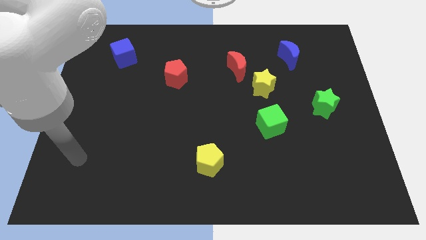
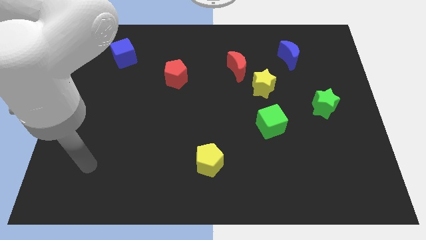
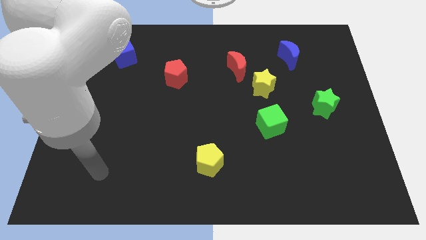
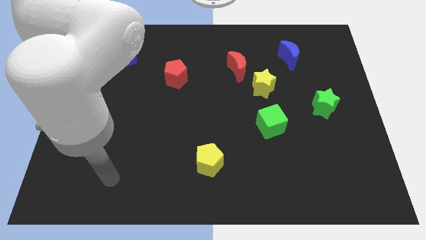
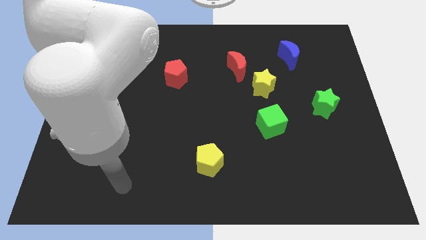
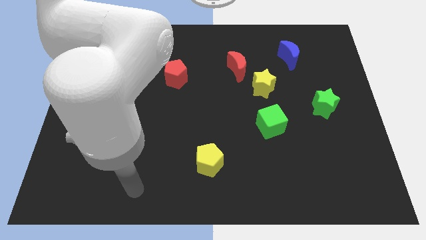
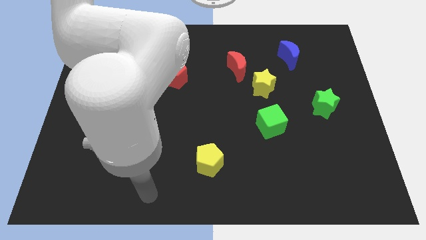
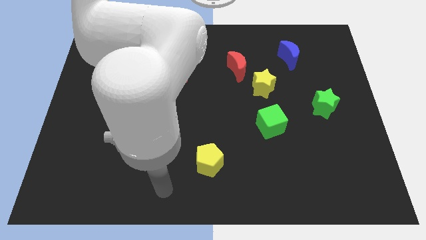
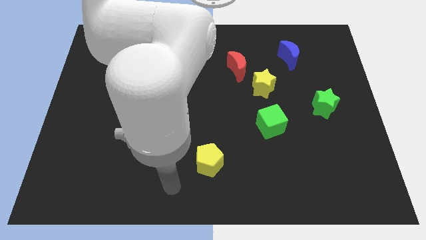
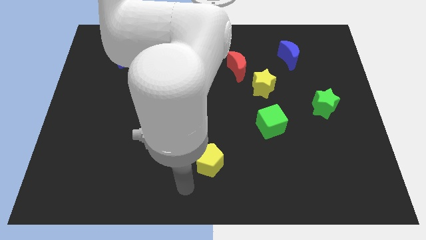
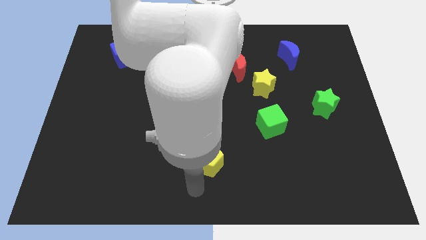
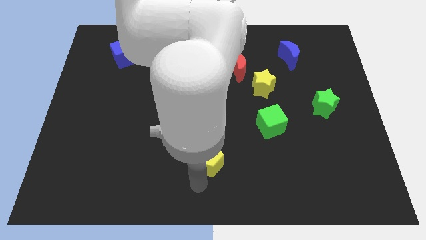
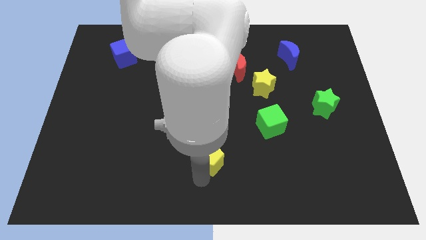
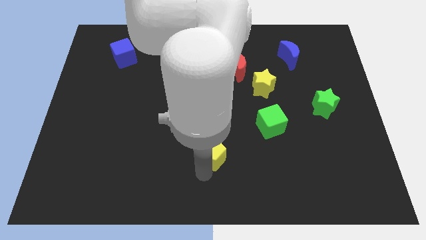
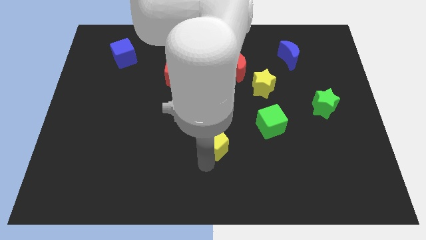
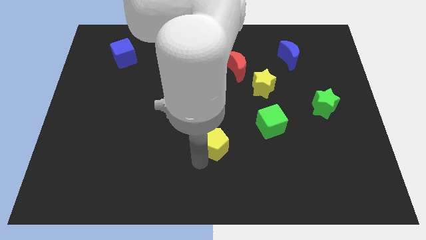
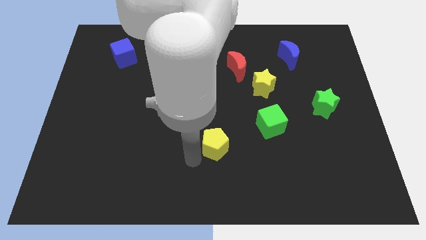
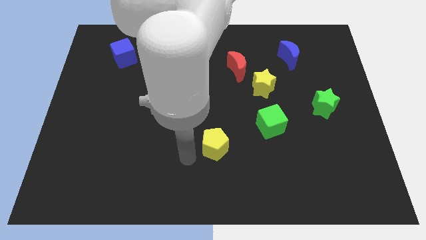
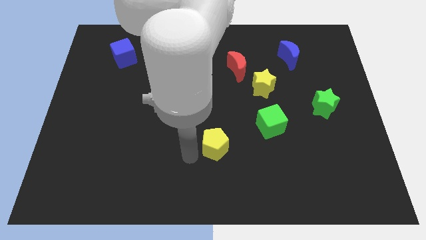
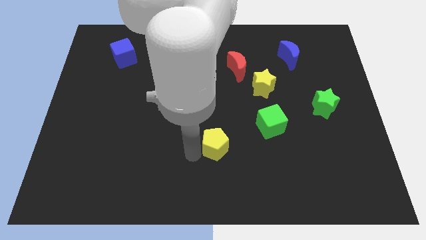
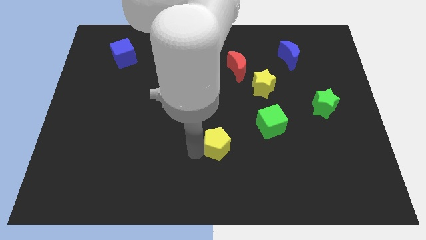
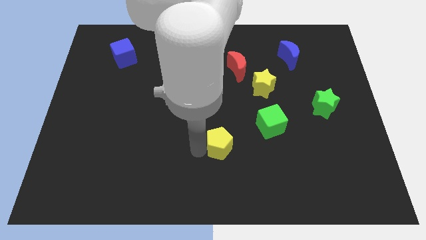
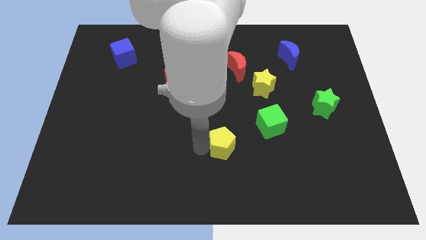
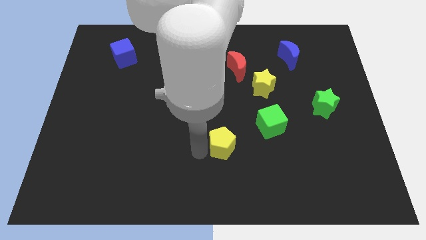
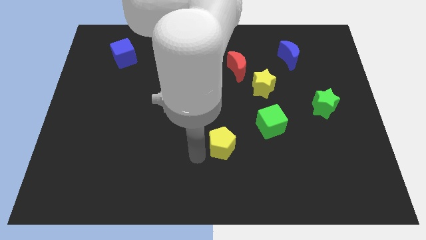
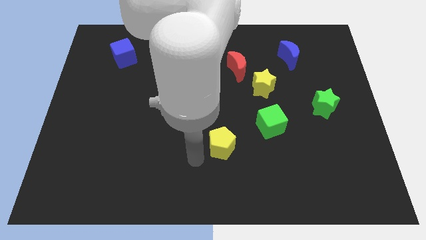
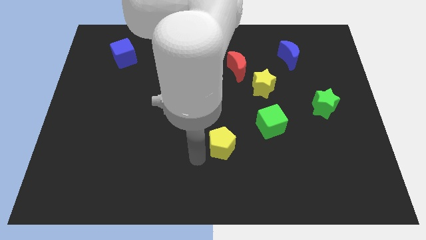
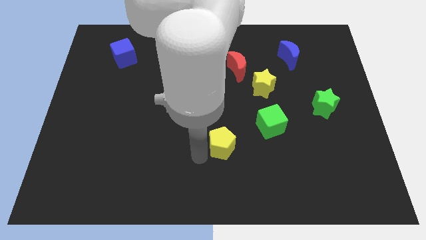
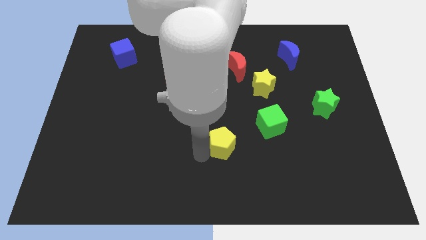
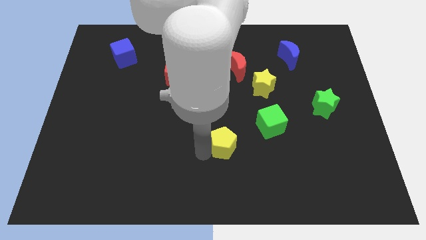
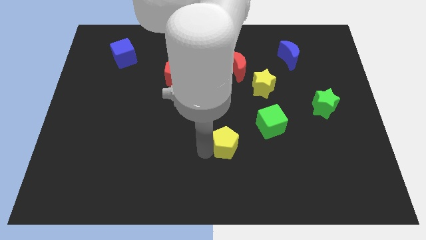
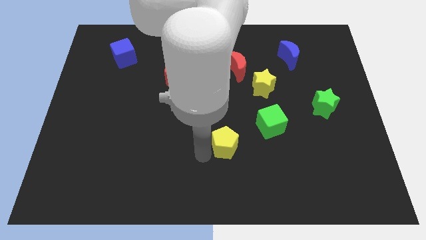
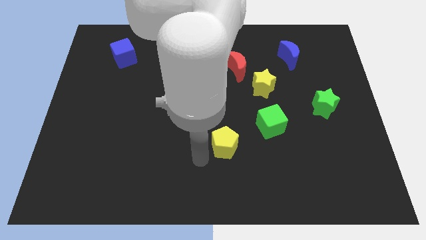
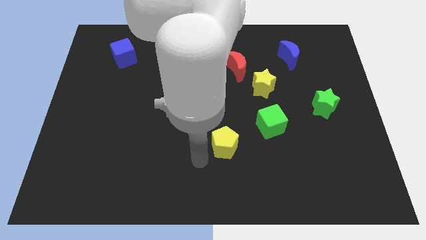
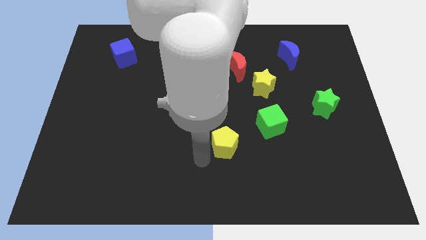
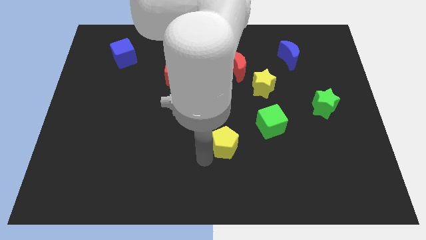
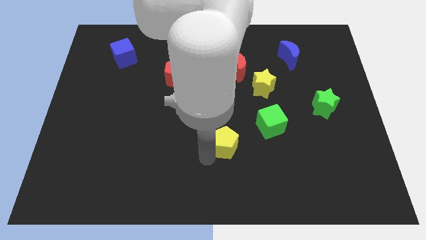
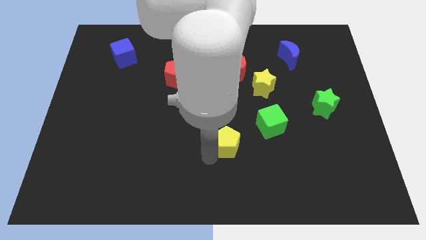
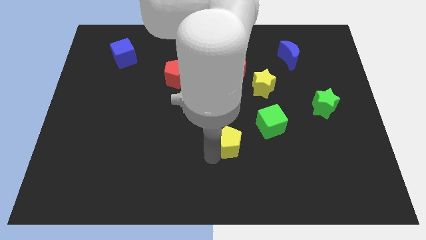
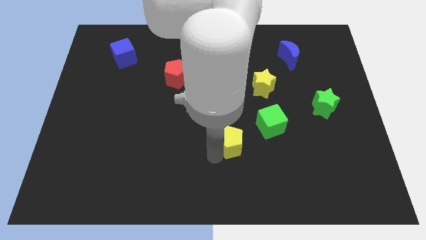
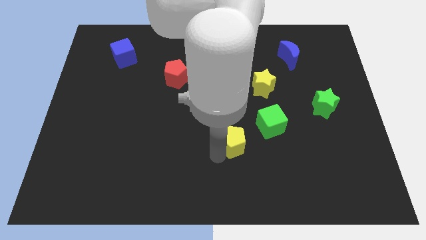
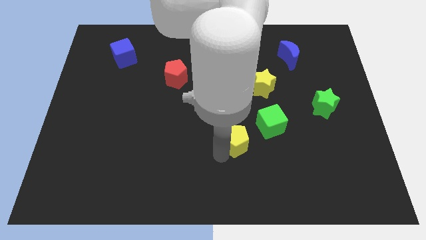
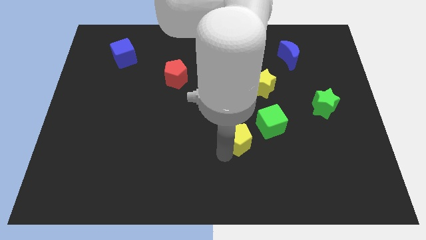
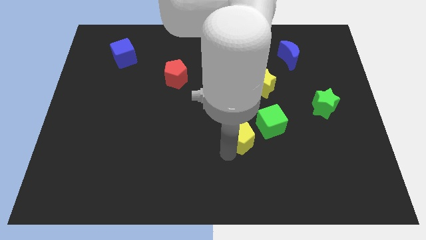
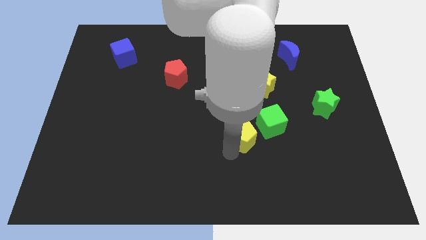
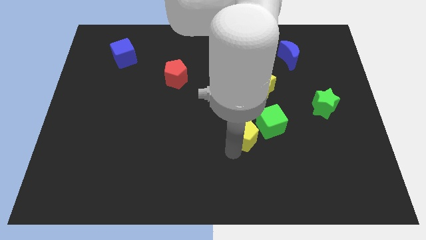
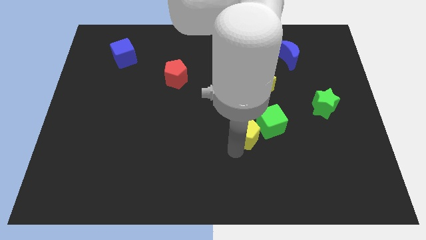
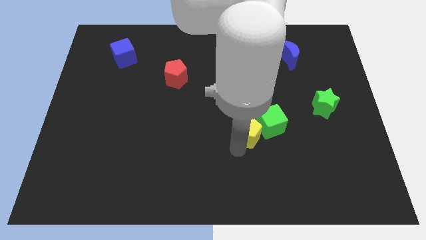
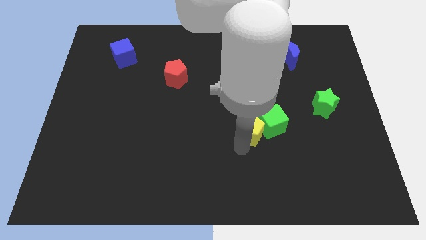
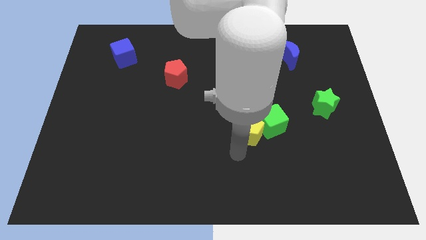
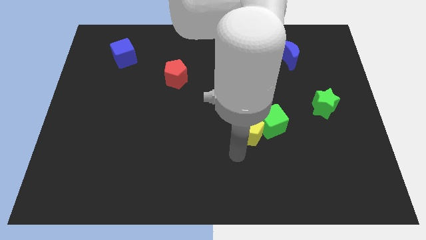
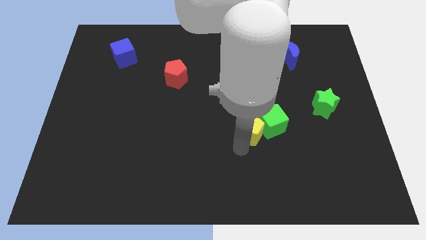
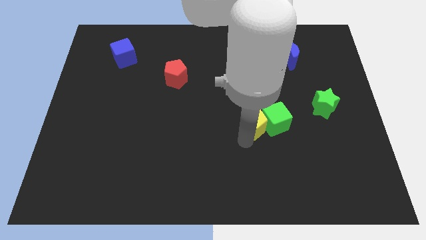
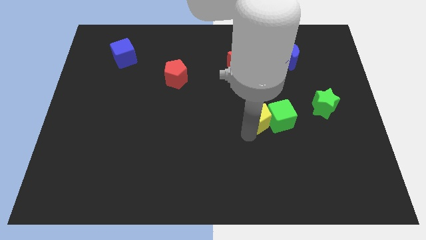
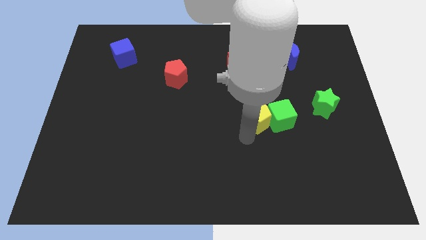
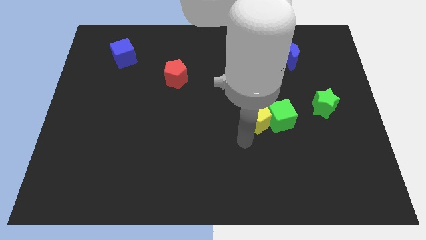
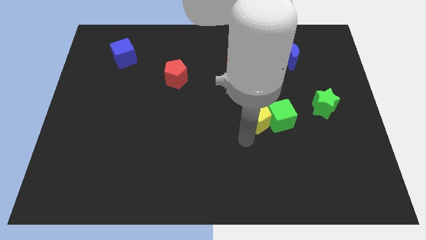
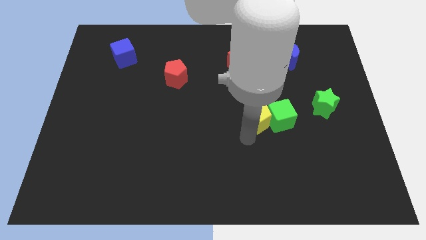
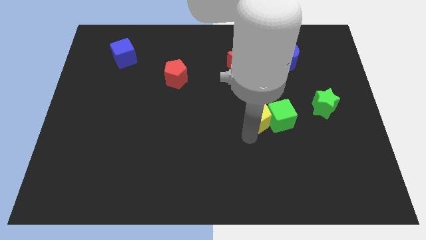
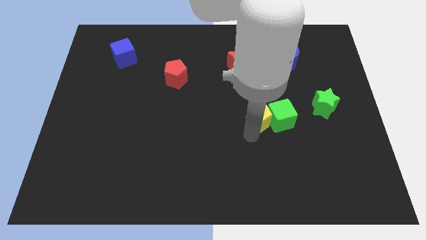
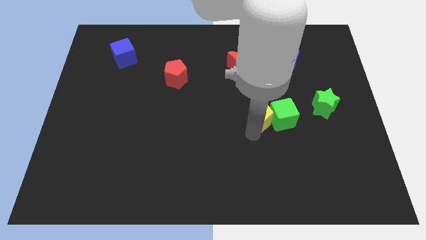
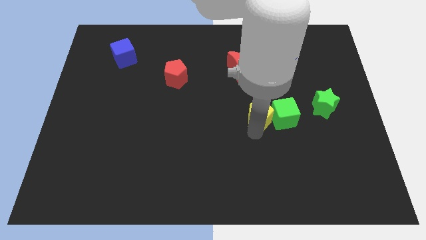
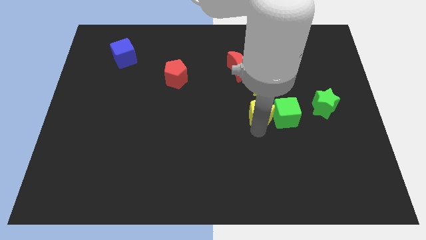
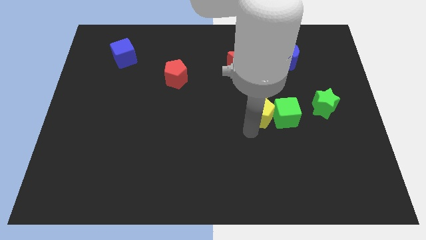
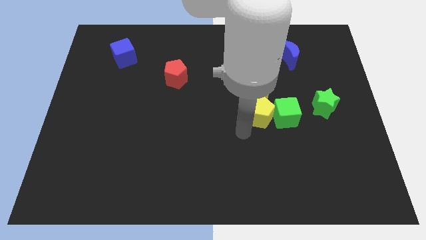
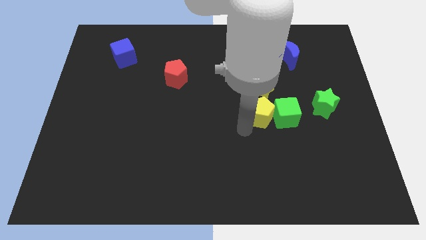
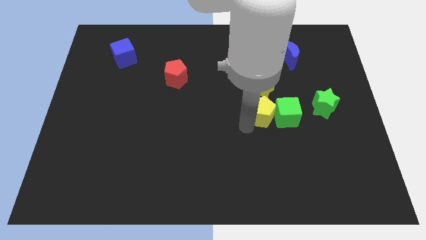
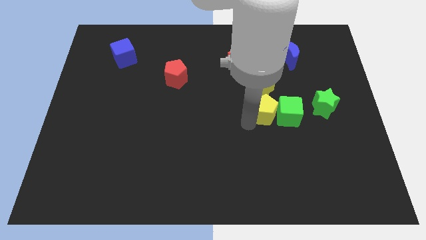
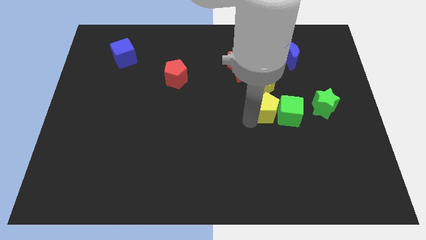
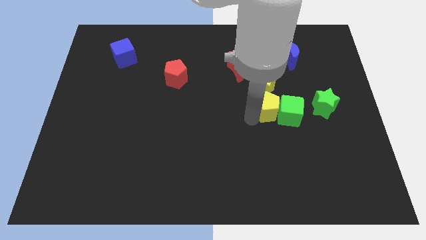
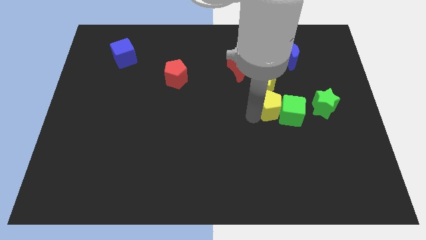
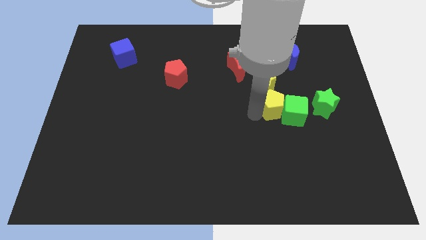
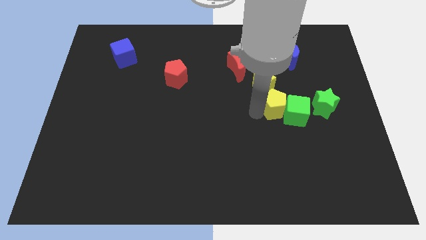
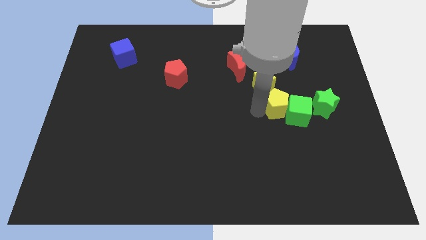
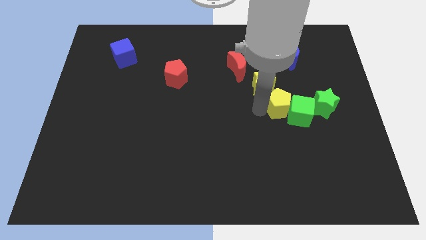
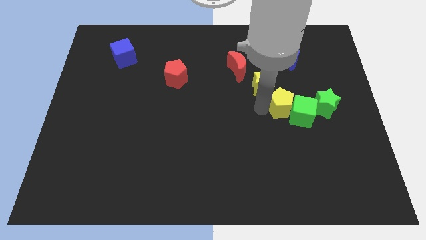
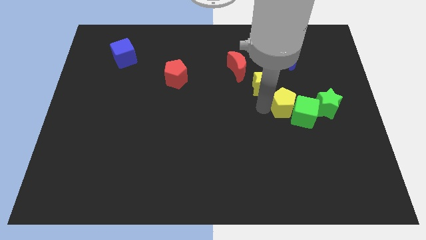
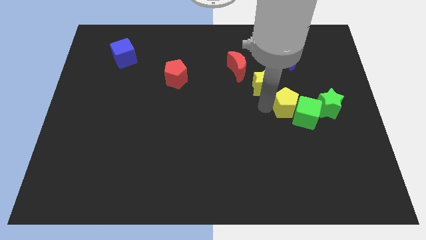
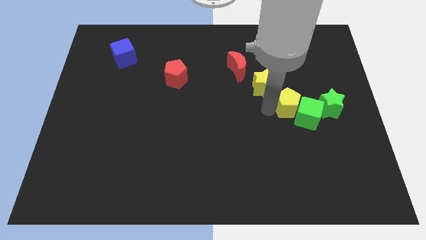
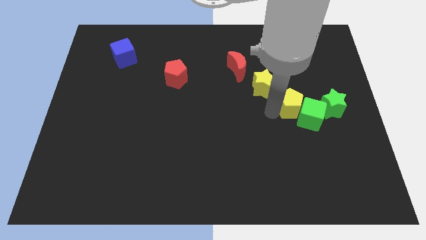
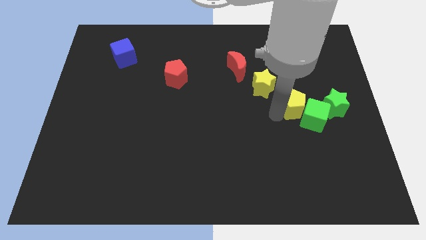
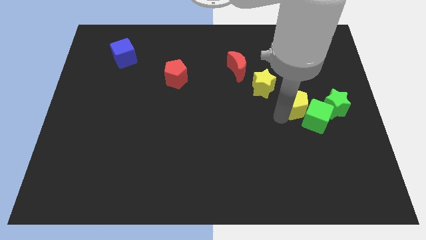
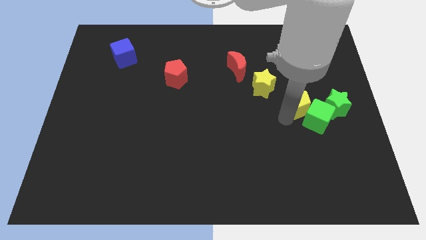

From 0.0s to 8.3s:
slide the yellow pentagon to the bottom side of the blue moon
